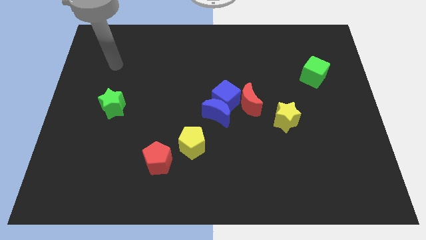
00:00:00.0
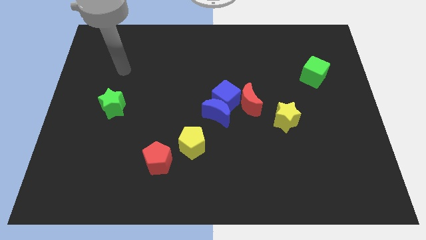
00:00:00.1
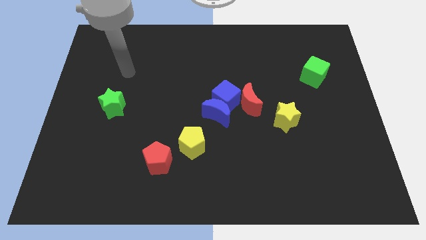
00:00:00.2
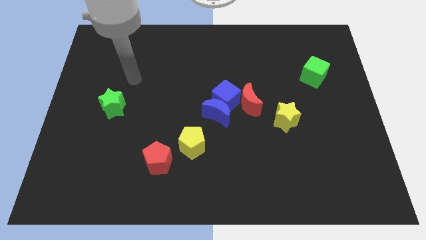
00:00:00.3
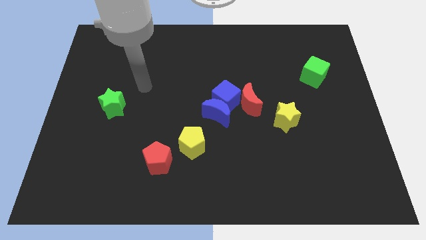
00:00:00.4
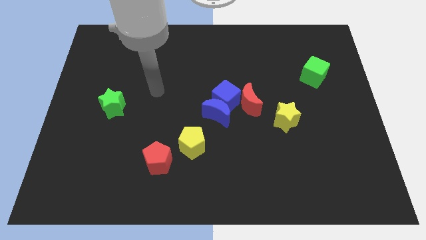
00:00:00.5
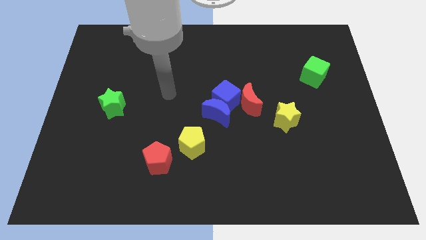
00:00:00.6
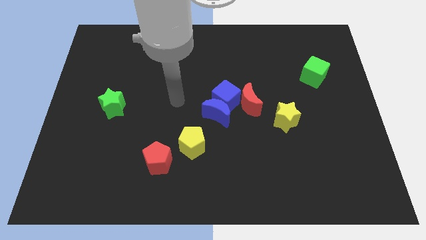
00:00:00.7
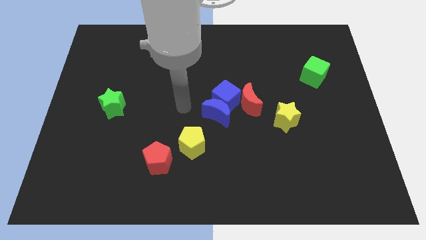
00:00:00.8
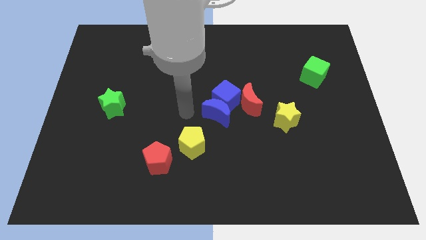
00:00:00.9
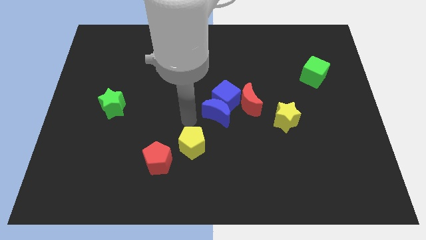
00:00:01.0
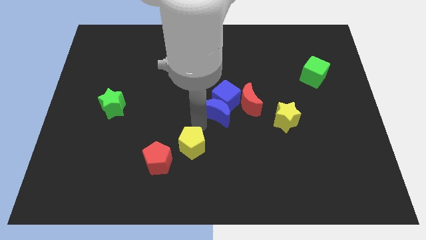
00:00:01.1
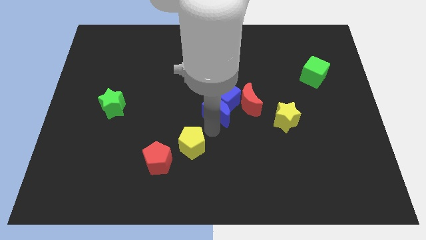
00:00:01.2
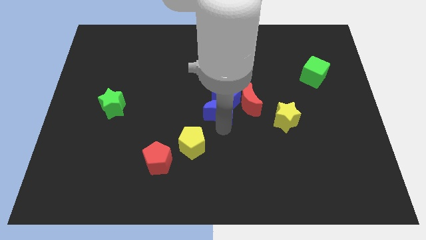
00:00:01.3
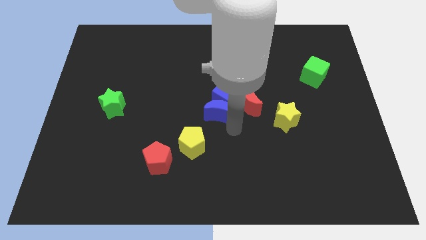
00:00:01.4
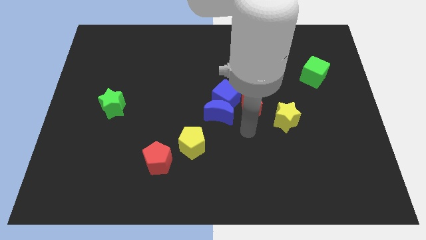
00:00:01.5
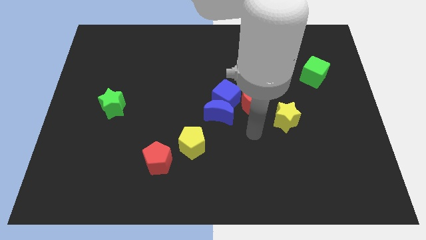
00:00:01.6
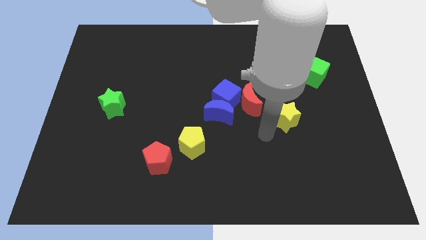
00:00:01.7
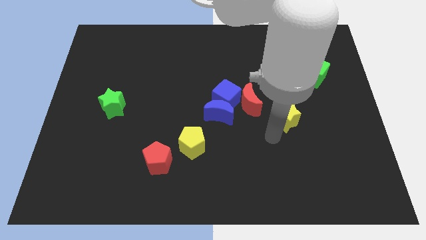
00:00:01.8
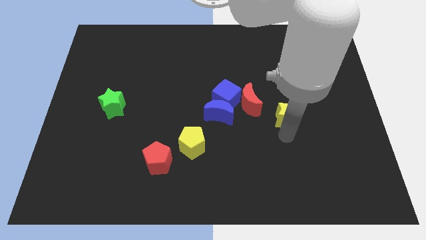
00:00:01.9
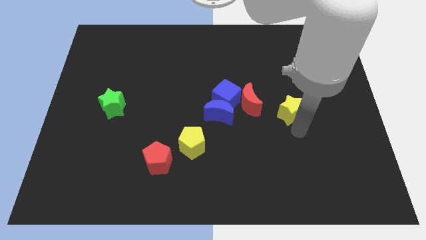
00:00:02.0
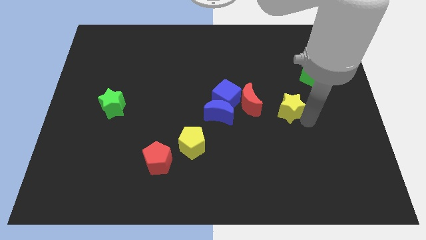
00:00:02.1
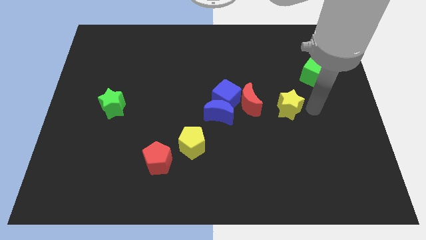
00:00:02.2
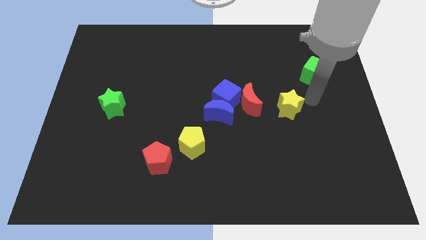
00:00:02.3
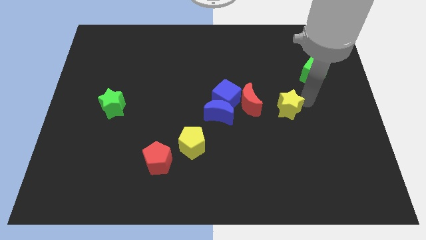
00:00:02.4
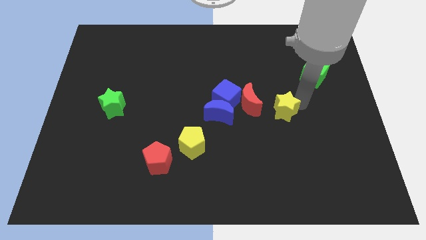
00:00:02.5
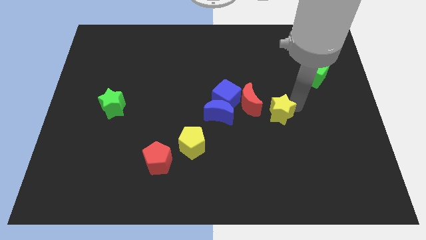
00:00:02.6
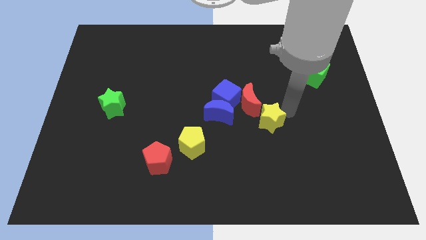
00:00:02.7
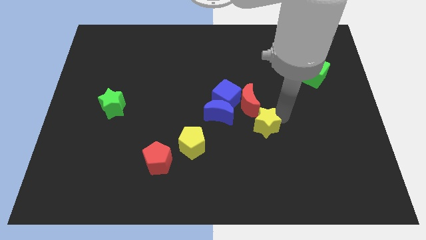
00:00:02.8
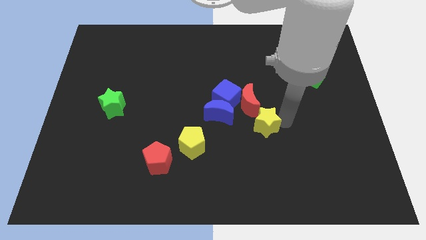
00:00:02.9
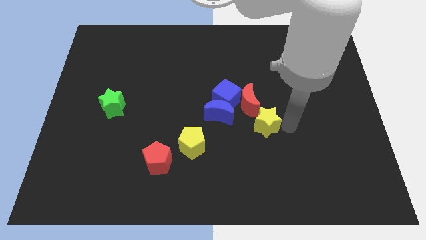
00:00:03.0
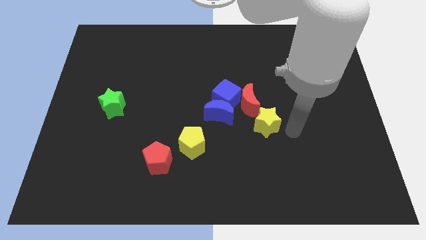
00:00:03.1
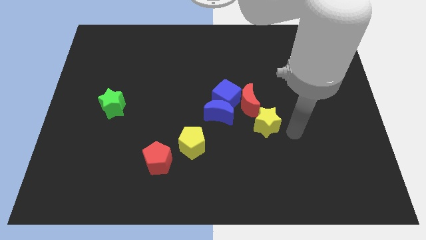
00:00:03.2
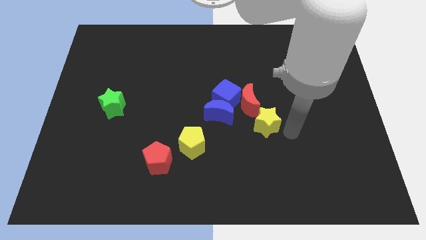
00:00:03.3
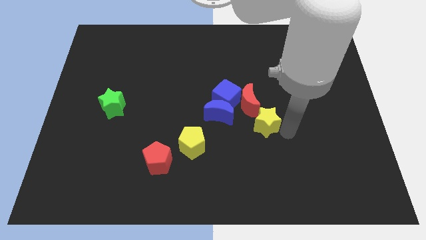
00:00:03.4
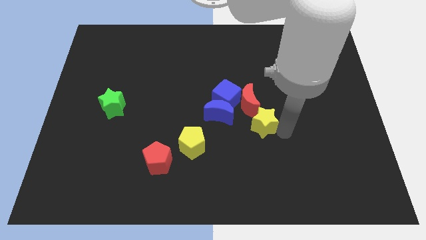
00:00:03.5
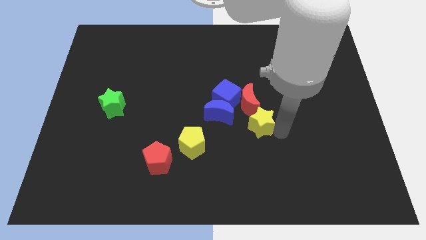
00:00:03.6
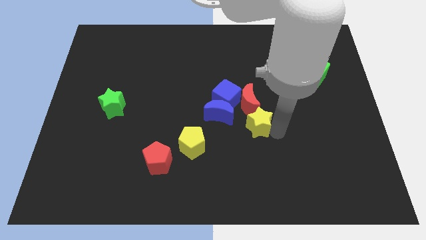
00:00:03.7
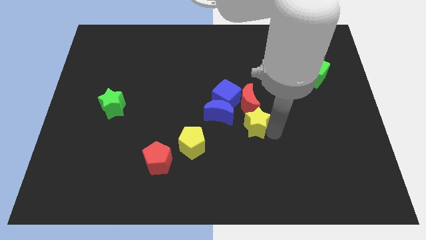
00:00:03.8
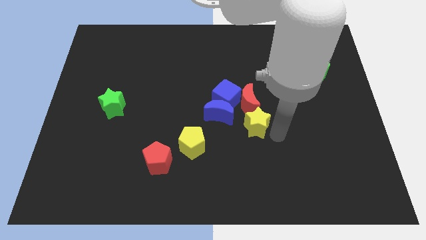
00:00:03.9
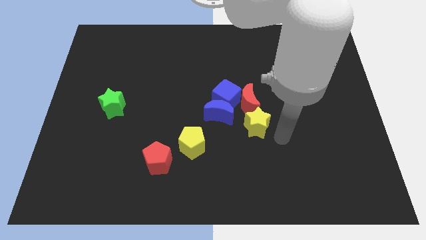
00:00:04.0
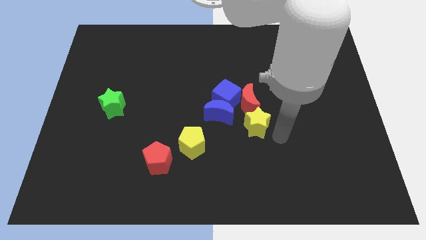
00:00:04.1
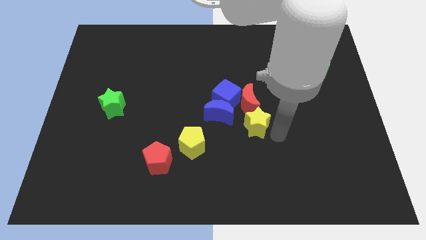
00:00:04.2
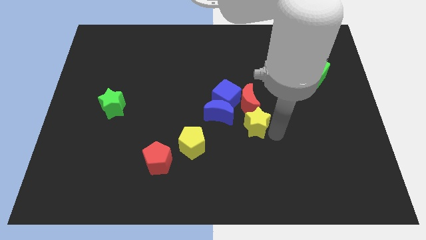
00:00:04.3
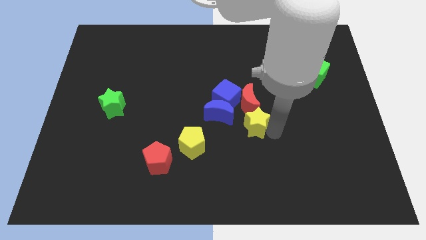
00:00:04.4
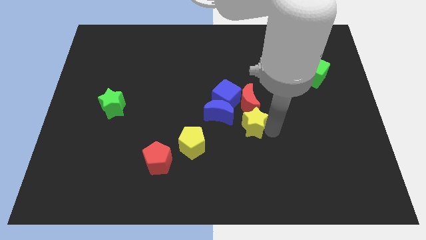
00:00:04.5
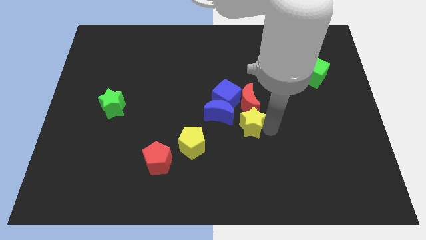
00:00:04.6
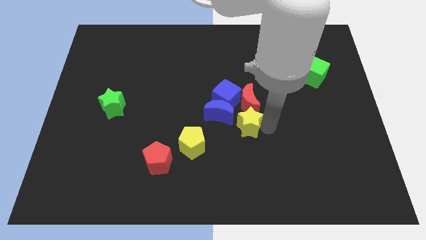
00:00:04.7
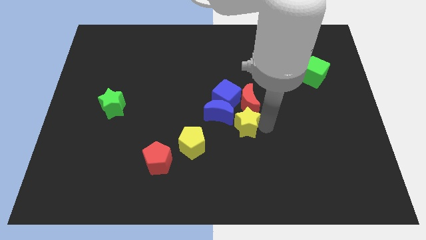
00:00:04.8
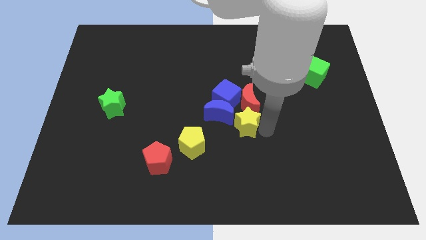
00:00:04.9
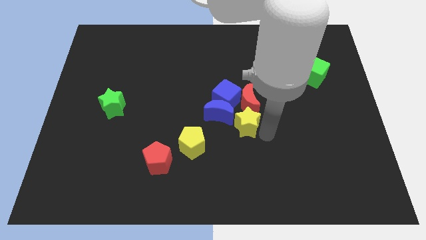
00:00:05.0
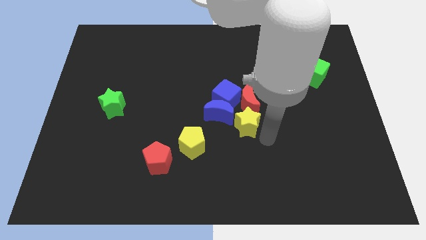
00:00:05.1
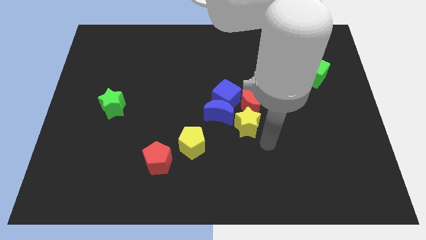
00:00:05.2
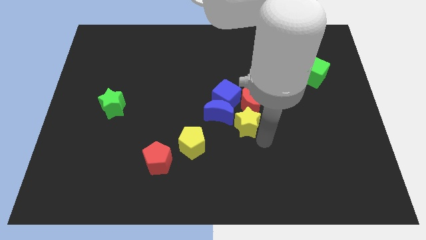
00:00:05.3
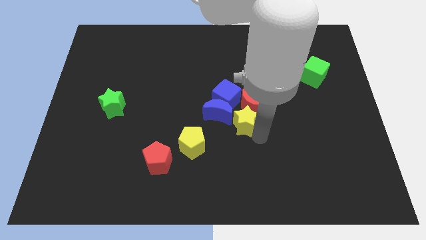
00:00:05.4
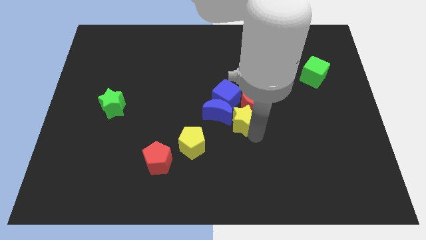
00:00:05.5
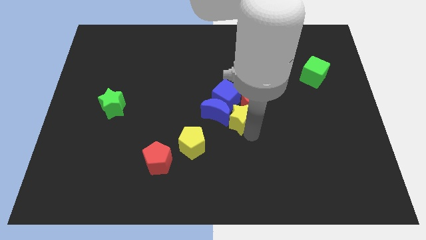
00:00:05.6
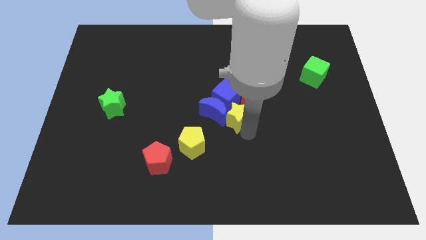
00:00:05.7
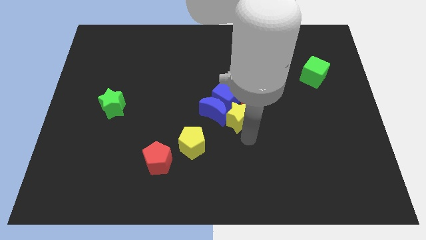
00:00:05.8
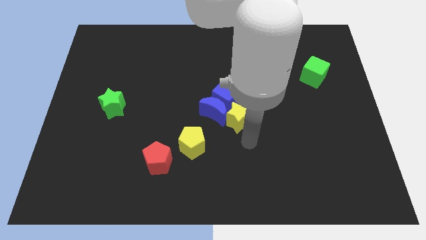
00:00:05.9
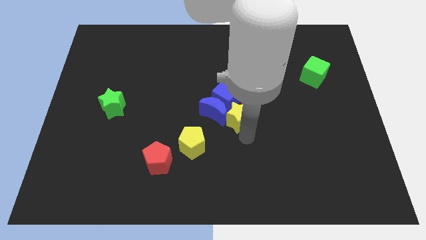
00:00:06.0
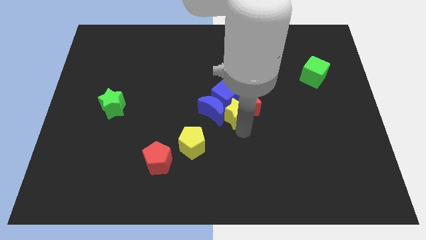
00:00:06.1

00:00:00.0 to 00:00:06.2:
slide the yellow star towards the blue cube
